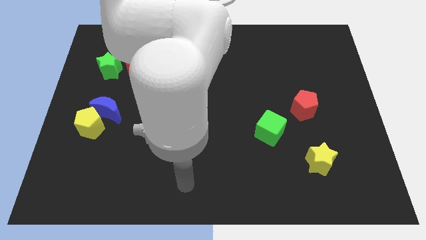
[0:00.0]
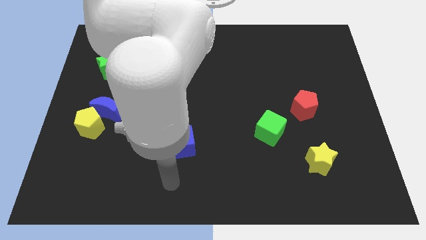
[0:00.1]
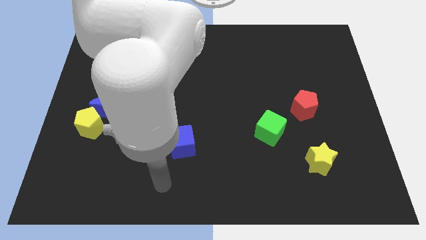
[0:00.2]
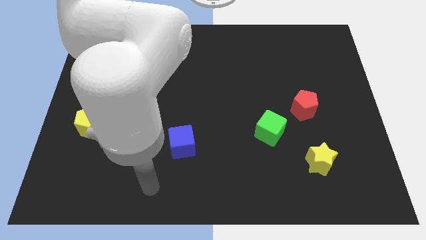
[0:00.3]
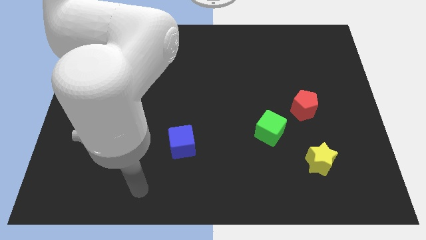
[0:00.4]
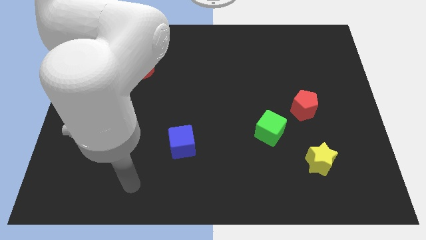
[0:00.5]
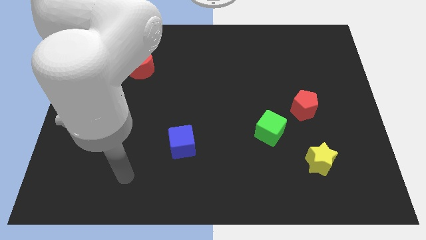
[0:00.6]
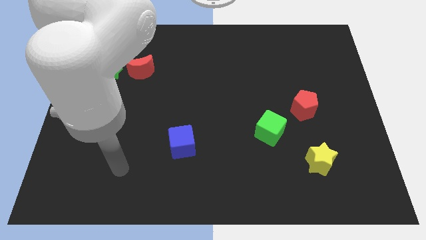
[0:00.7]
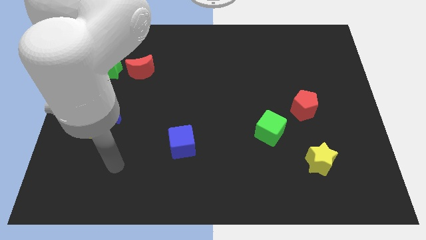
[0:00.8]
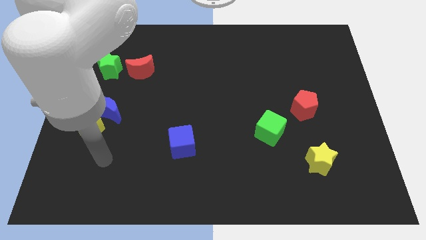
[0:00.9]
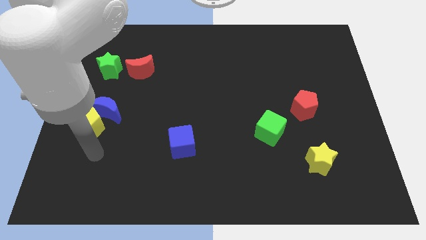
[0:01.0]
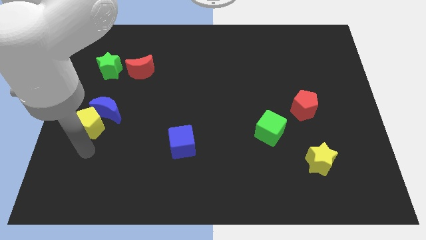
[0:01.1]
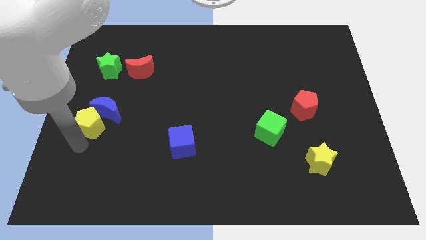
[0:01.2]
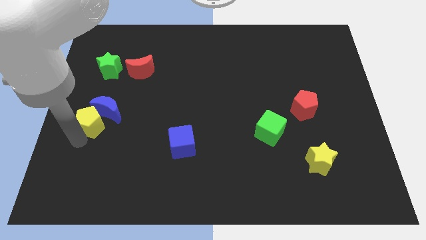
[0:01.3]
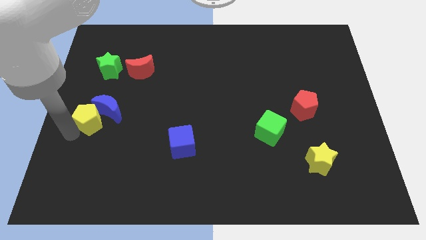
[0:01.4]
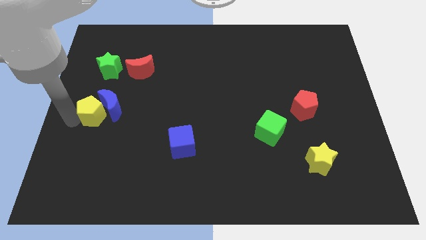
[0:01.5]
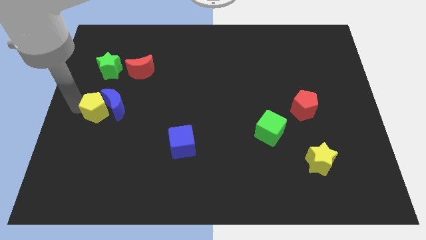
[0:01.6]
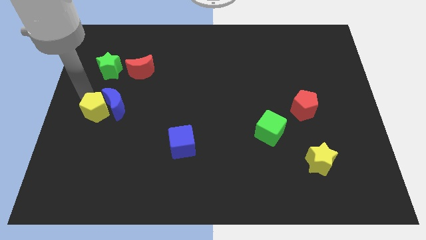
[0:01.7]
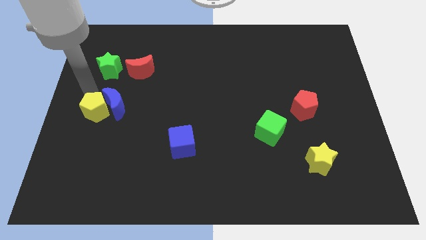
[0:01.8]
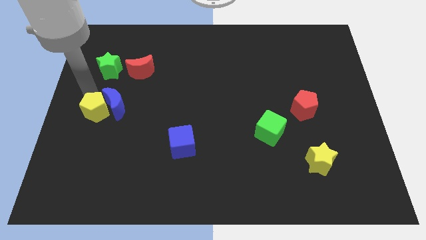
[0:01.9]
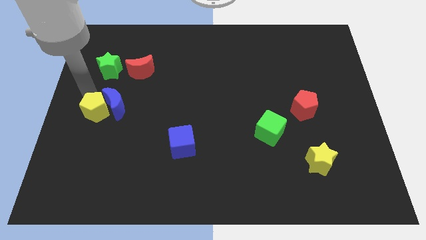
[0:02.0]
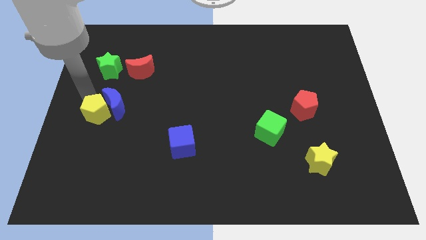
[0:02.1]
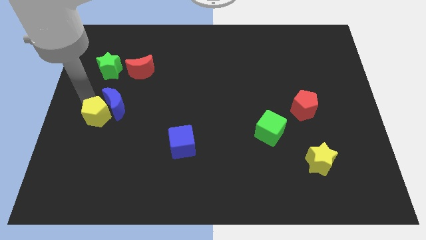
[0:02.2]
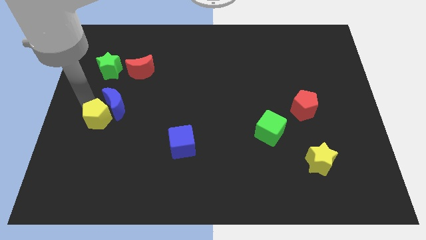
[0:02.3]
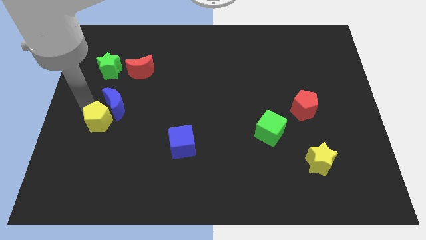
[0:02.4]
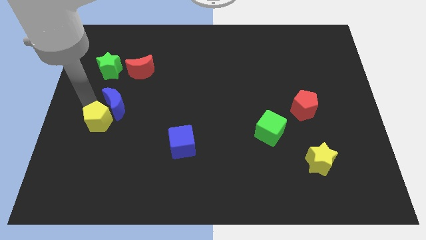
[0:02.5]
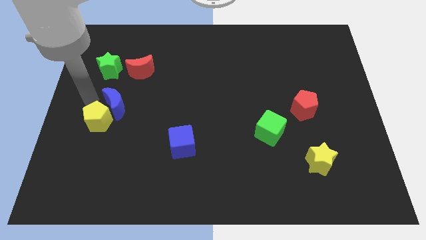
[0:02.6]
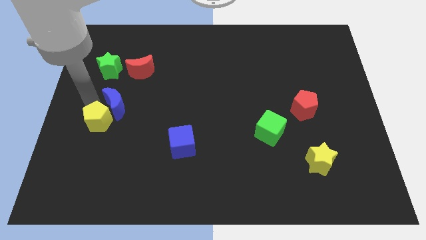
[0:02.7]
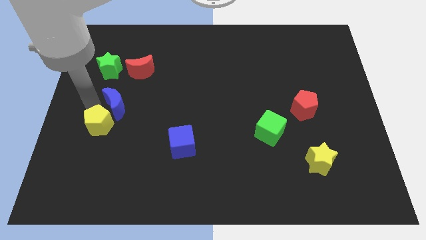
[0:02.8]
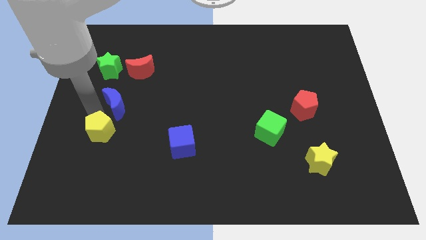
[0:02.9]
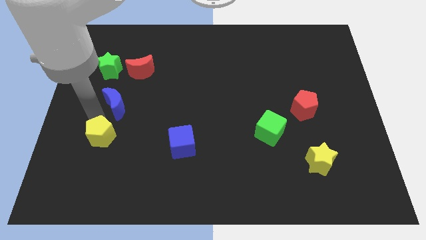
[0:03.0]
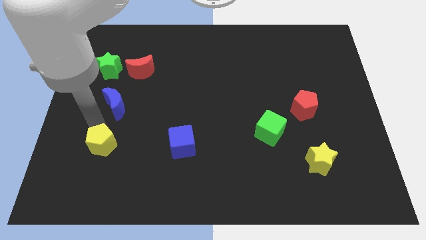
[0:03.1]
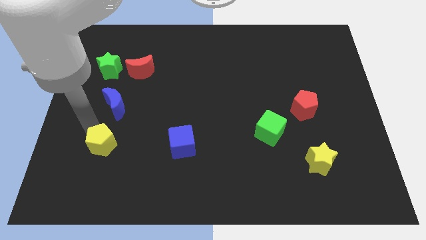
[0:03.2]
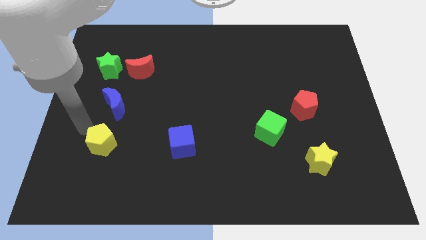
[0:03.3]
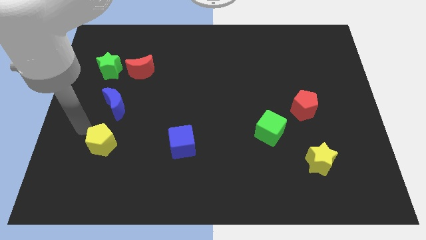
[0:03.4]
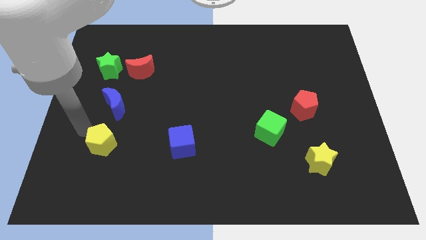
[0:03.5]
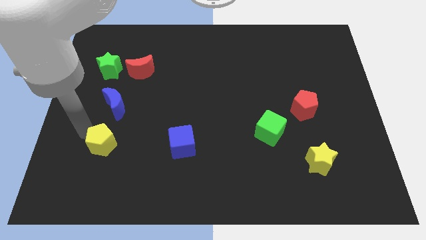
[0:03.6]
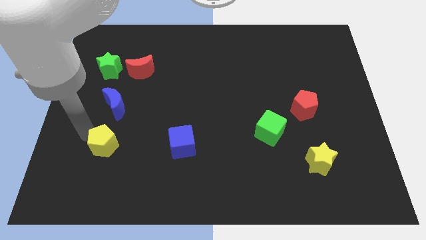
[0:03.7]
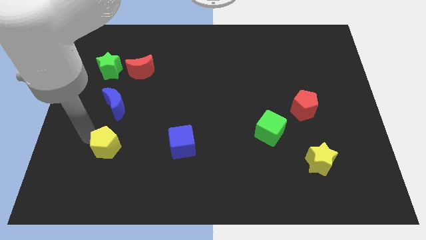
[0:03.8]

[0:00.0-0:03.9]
slightly push the yellow pentagon down and then to the right

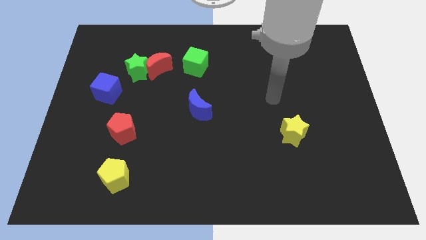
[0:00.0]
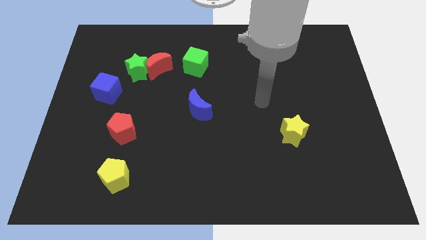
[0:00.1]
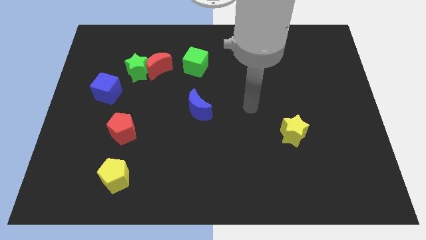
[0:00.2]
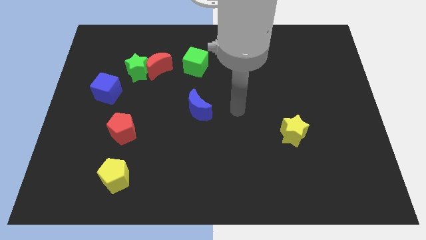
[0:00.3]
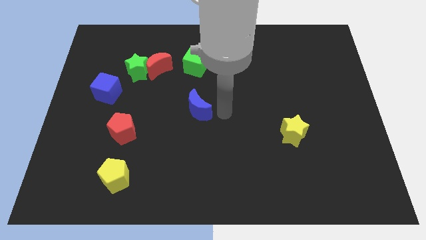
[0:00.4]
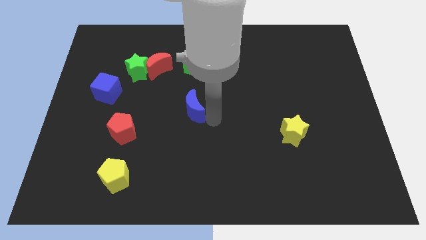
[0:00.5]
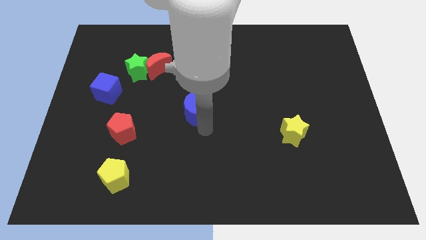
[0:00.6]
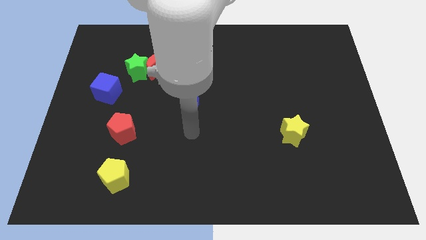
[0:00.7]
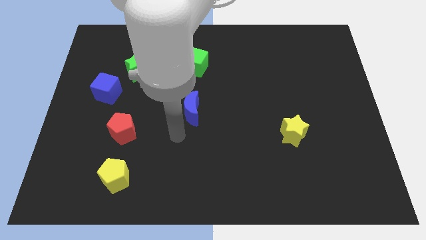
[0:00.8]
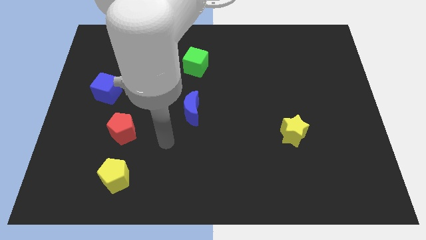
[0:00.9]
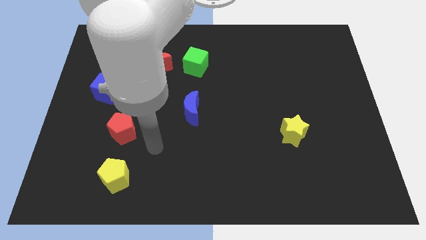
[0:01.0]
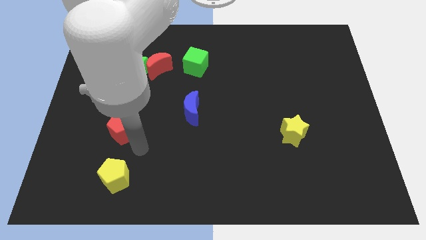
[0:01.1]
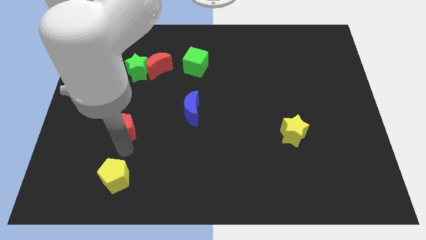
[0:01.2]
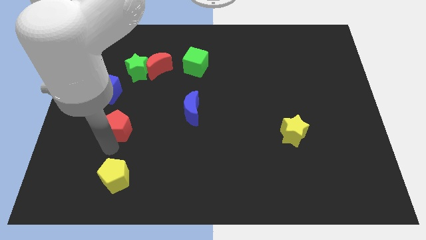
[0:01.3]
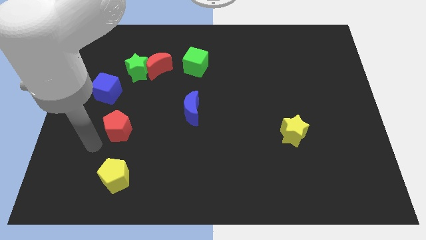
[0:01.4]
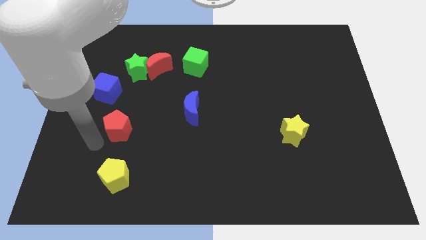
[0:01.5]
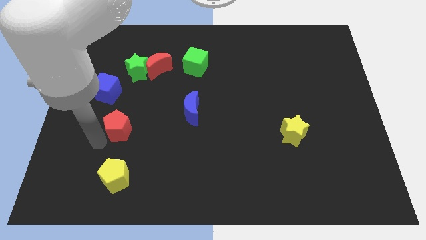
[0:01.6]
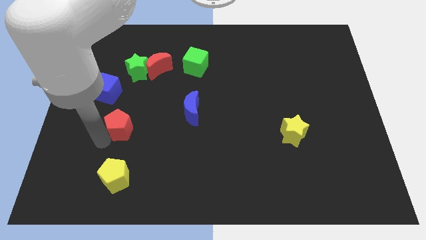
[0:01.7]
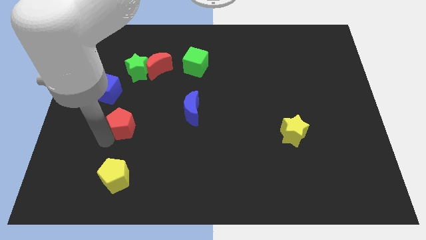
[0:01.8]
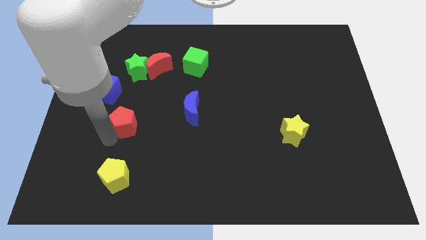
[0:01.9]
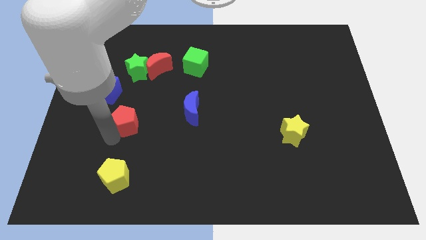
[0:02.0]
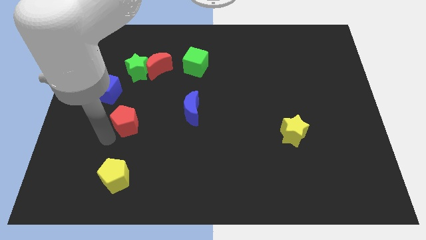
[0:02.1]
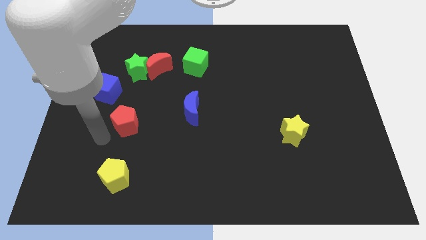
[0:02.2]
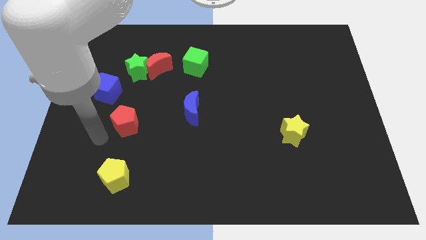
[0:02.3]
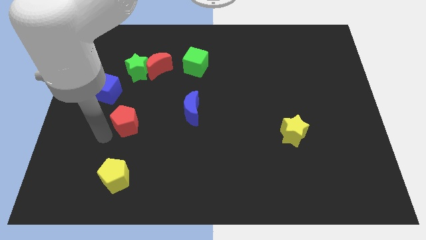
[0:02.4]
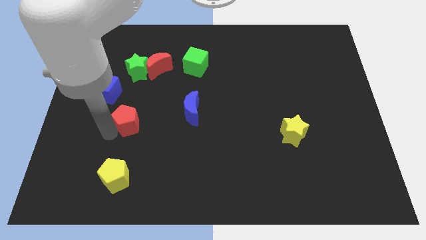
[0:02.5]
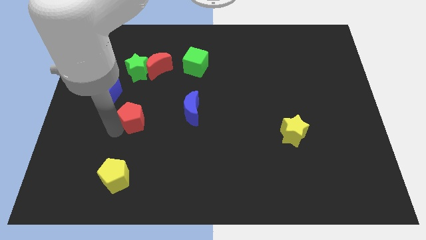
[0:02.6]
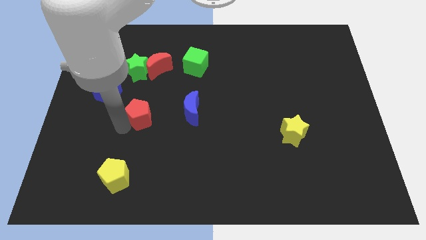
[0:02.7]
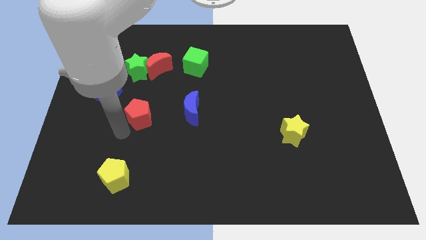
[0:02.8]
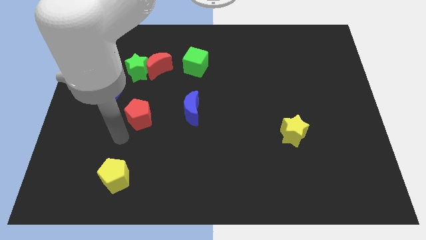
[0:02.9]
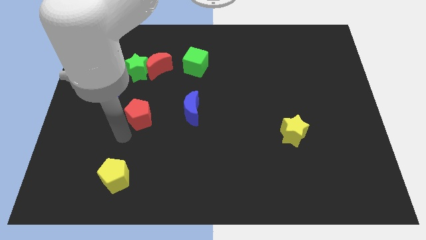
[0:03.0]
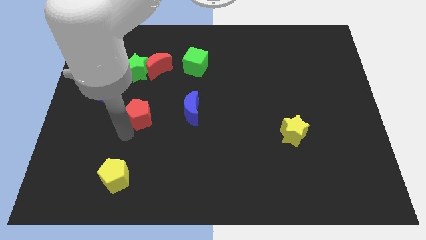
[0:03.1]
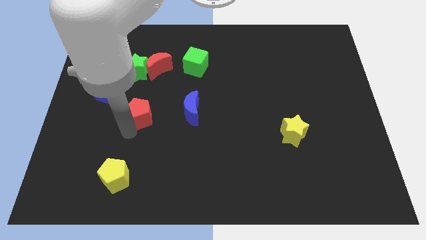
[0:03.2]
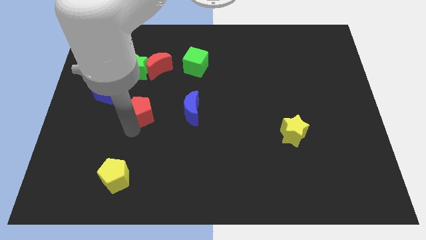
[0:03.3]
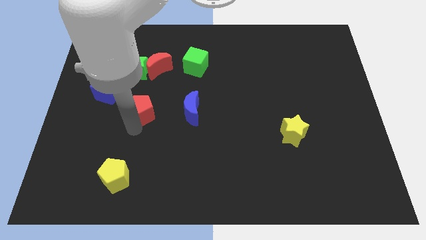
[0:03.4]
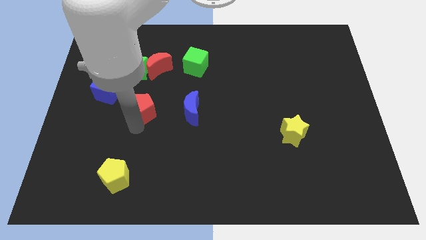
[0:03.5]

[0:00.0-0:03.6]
push the red pentagon somewhat up and to the right

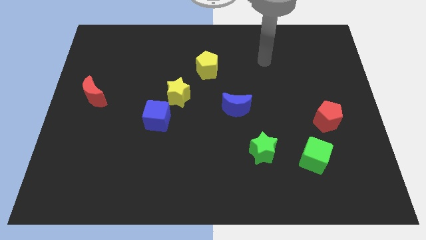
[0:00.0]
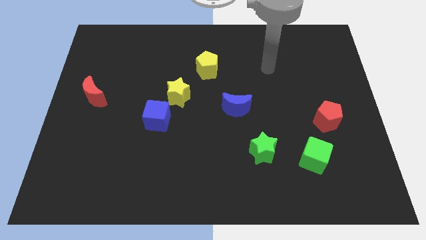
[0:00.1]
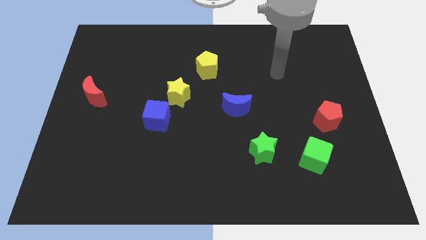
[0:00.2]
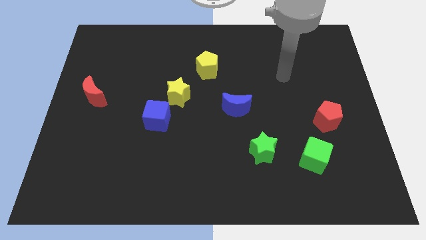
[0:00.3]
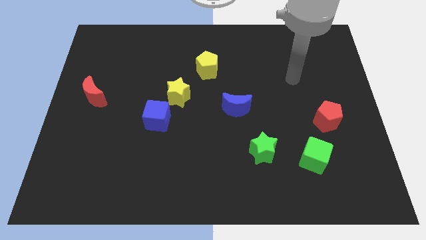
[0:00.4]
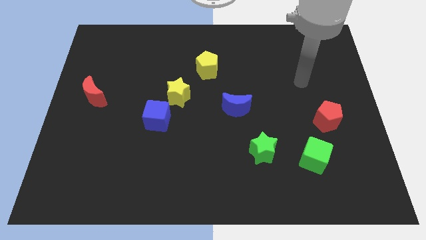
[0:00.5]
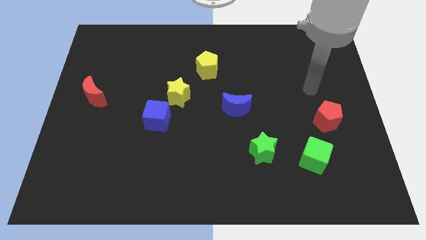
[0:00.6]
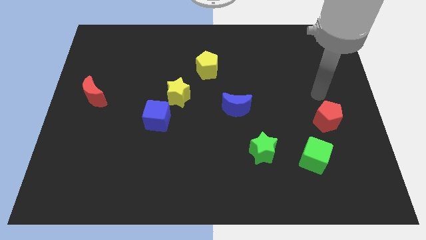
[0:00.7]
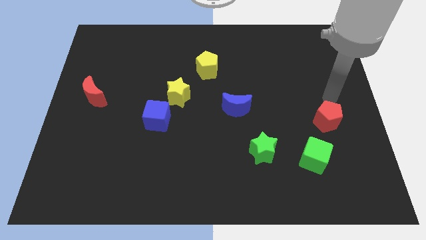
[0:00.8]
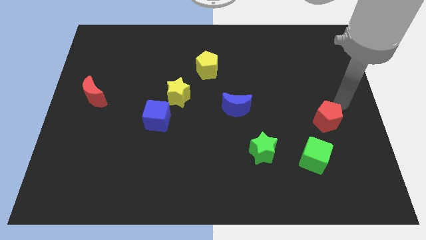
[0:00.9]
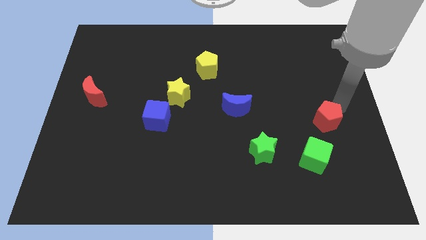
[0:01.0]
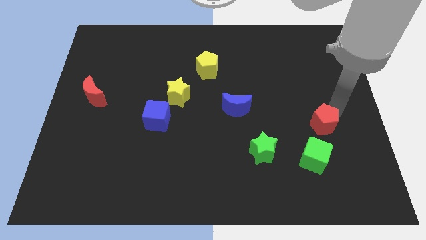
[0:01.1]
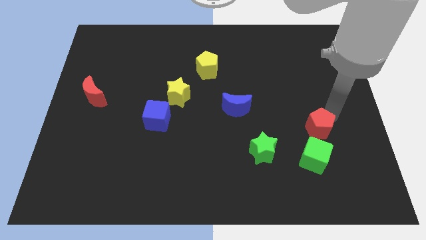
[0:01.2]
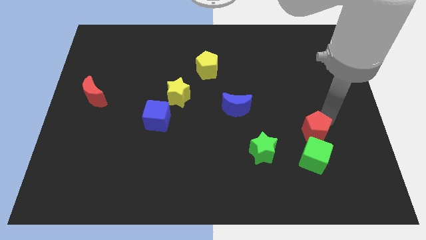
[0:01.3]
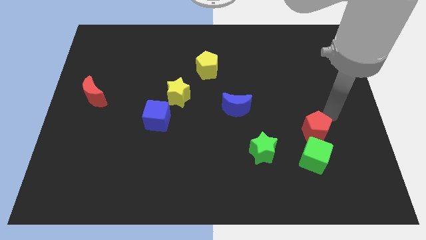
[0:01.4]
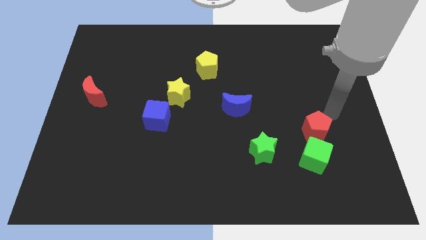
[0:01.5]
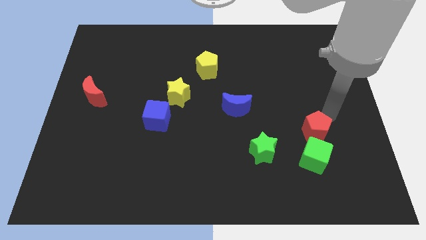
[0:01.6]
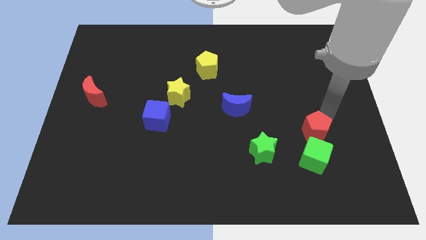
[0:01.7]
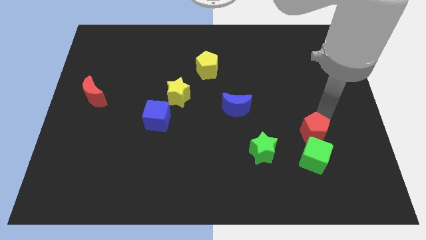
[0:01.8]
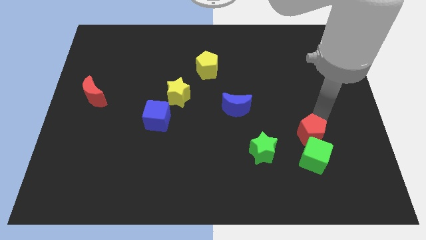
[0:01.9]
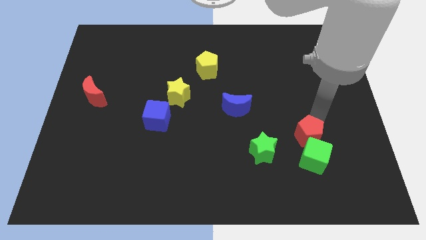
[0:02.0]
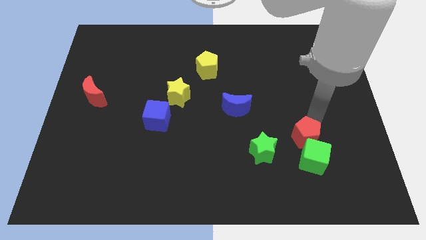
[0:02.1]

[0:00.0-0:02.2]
move the red pentagon somewhat down and then to the left
